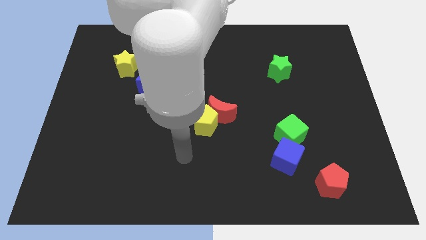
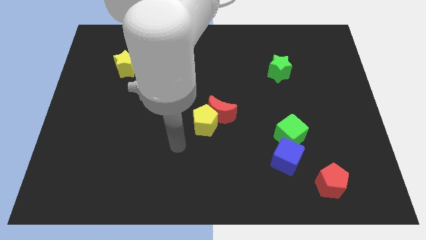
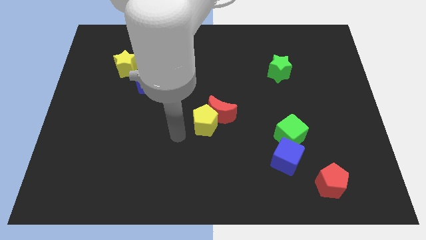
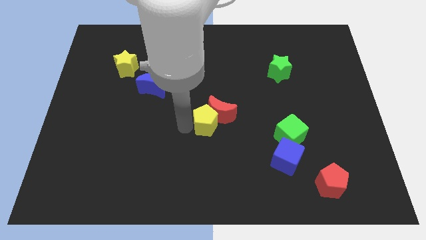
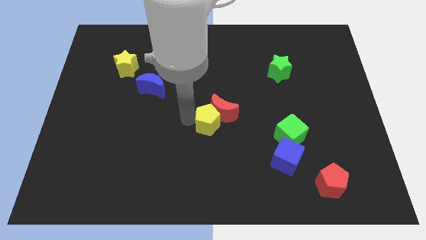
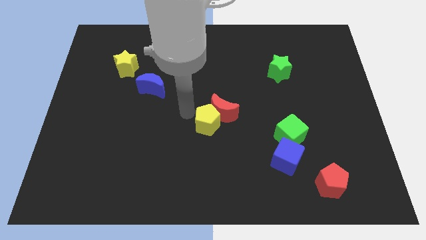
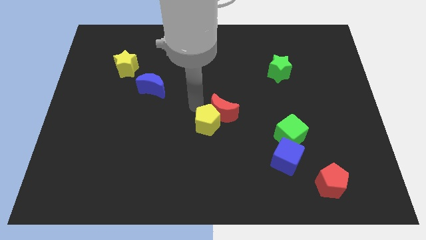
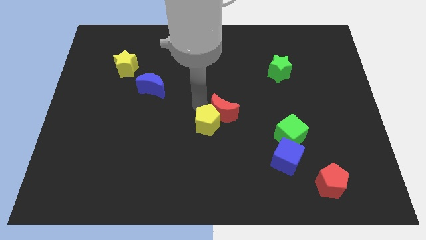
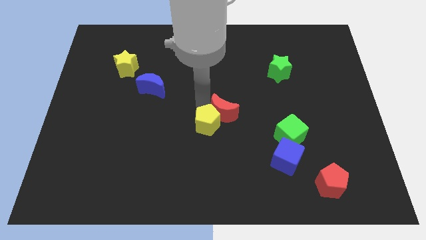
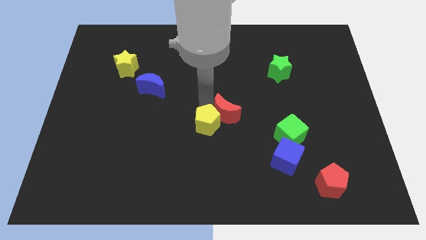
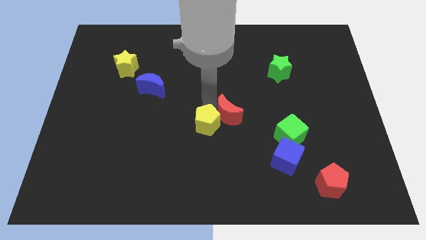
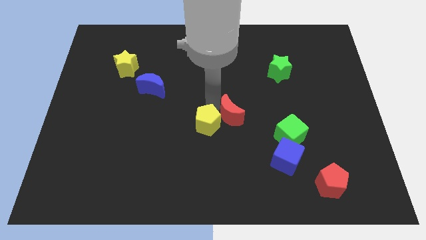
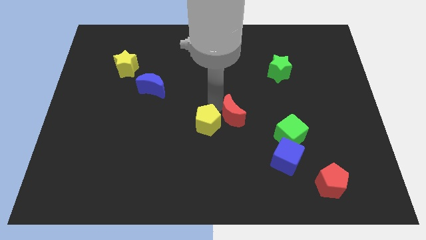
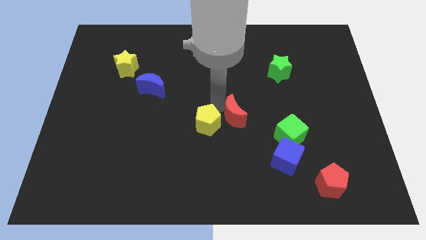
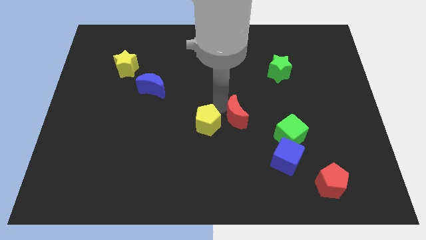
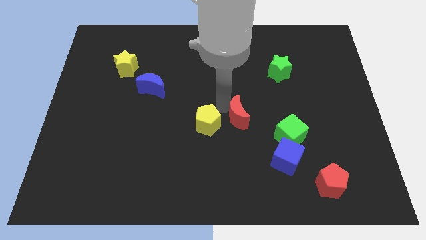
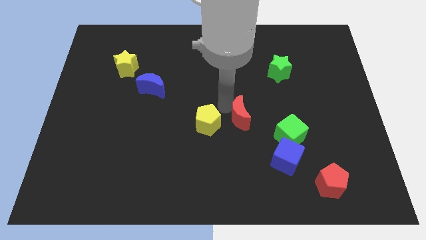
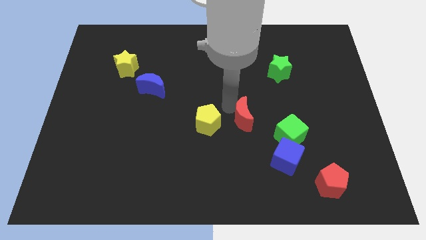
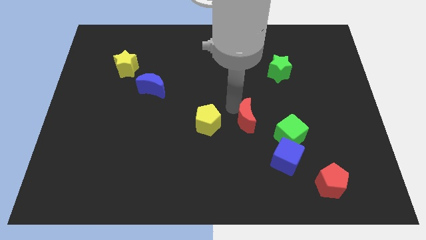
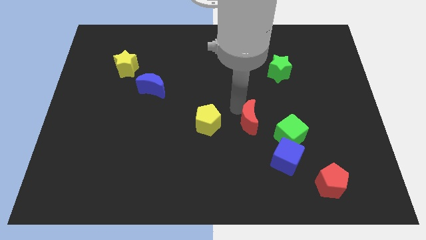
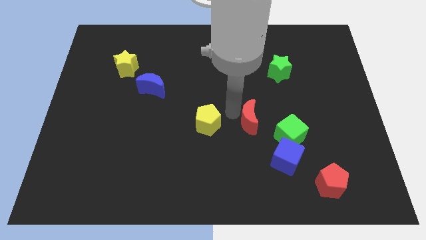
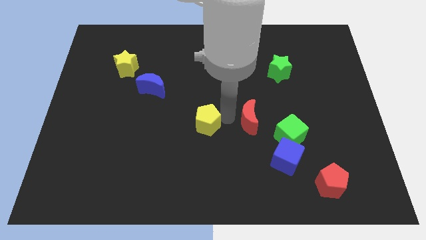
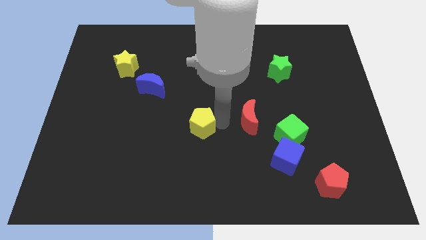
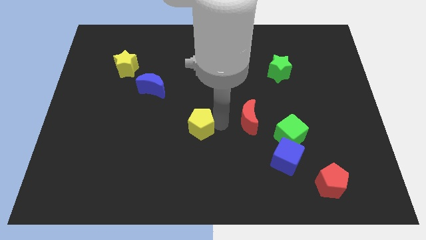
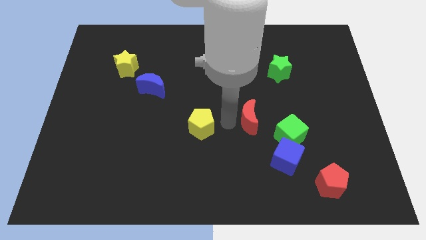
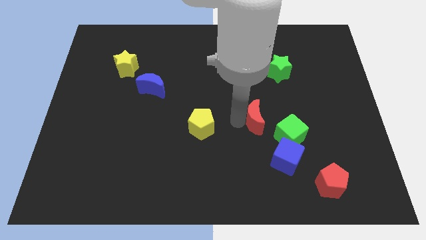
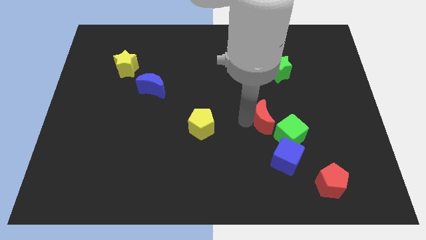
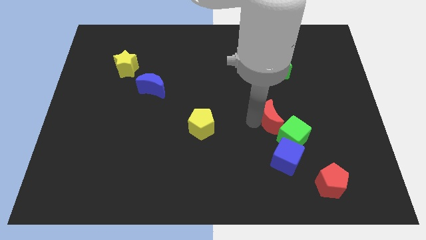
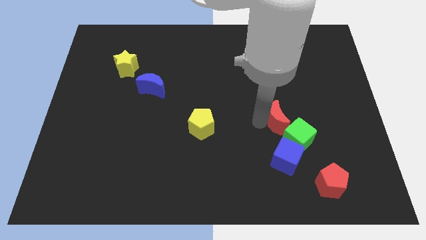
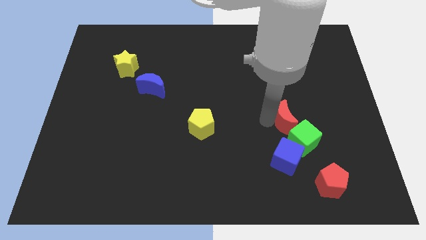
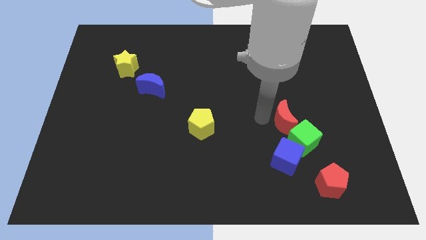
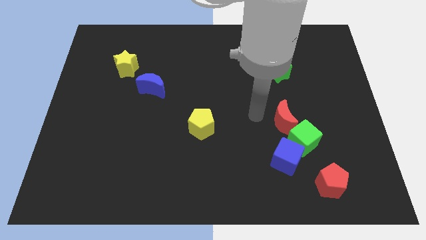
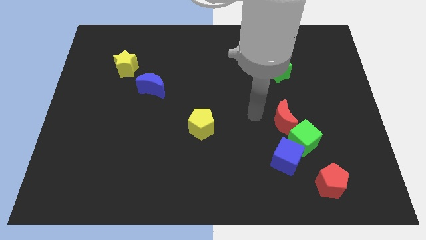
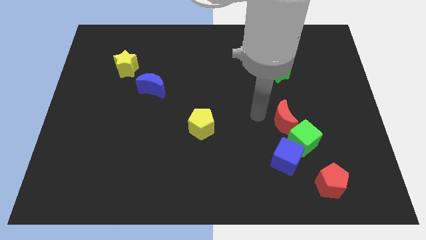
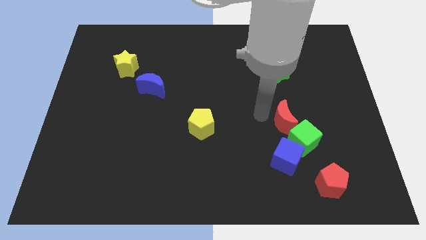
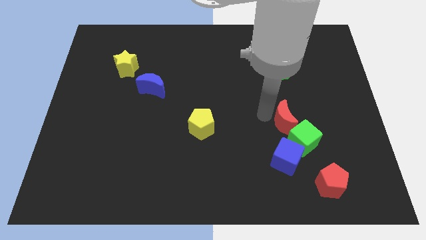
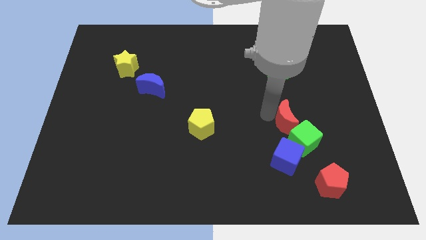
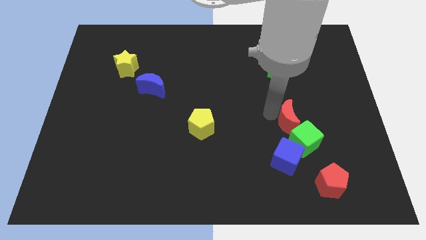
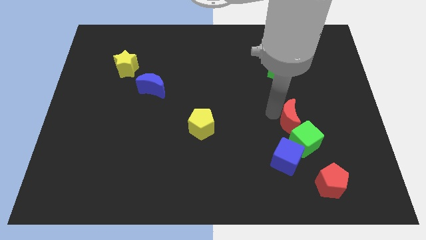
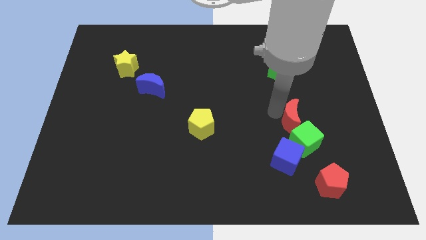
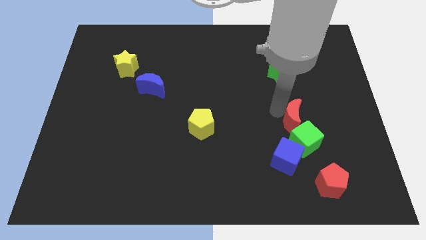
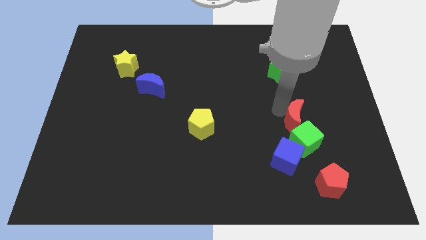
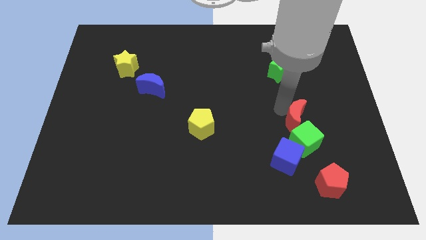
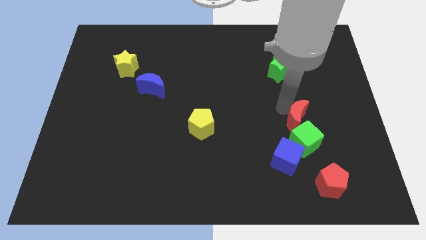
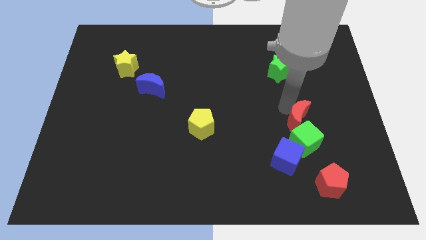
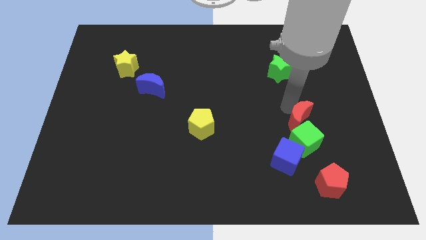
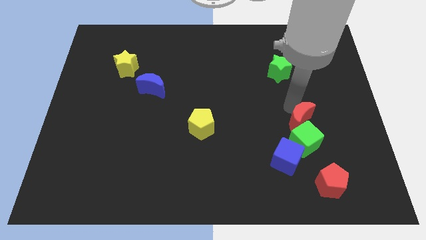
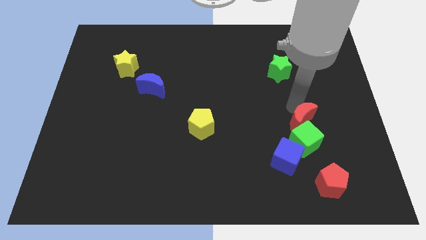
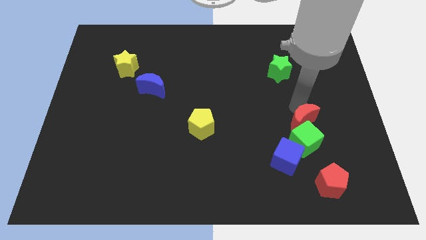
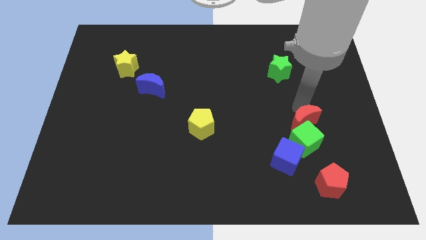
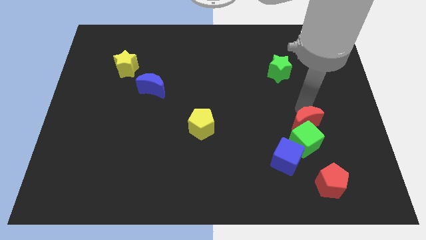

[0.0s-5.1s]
slide the red moon above the red pentagon

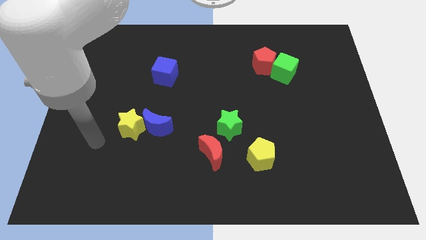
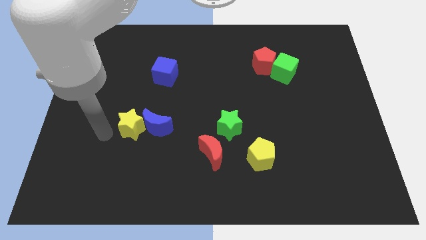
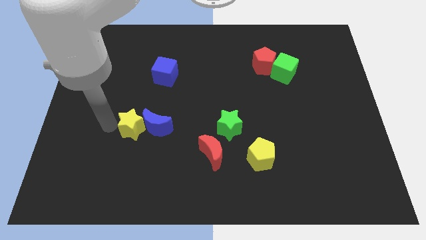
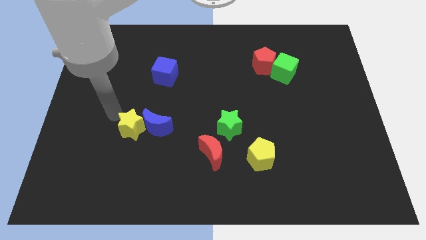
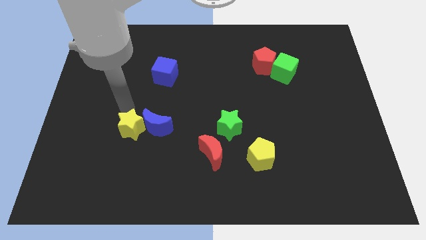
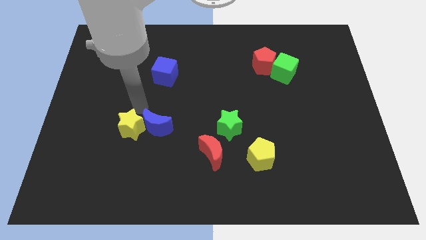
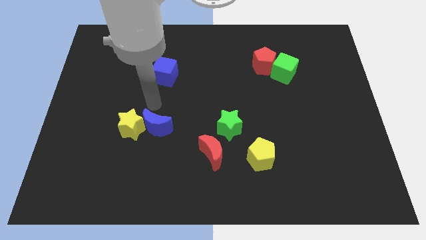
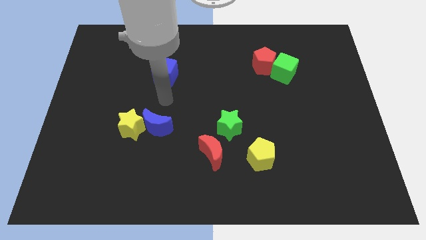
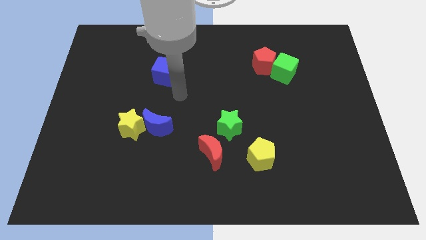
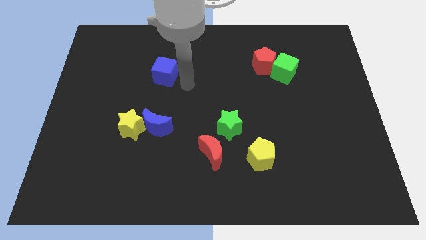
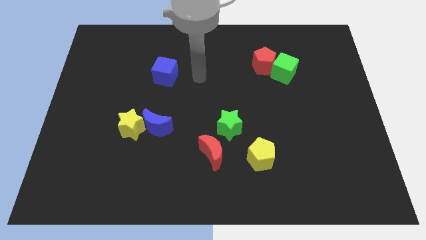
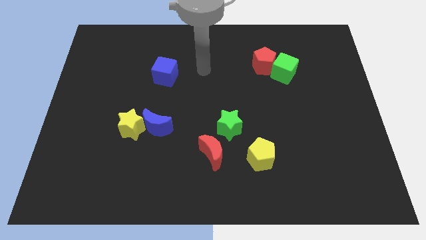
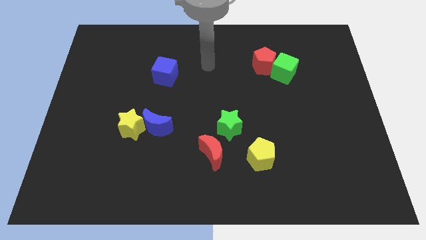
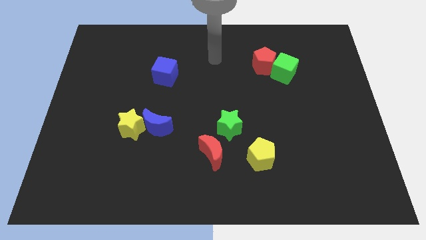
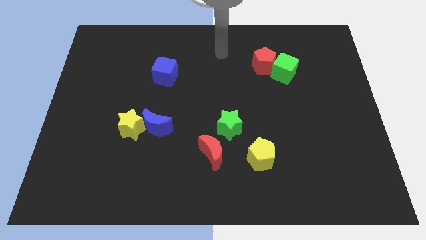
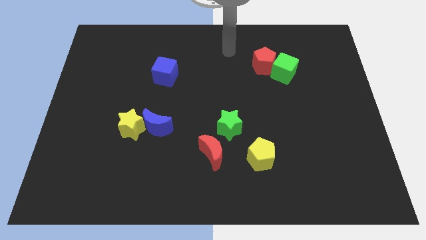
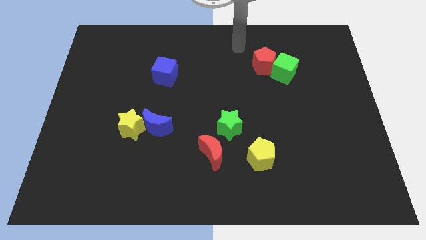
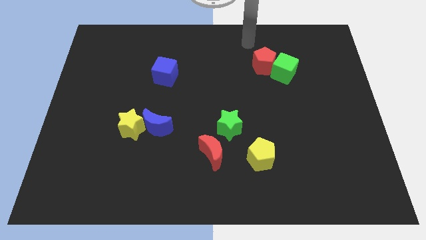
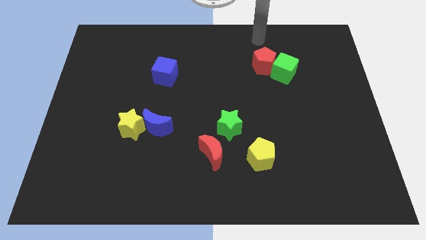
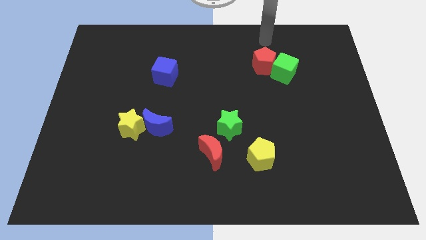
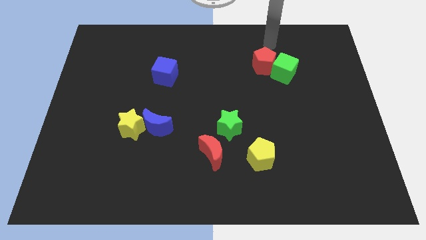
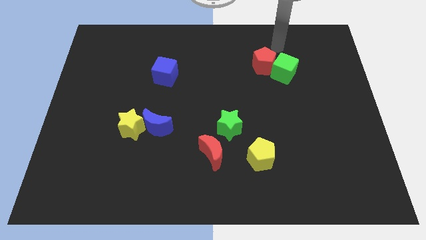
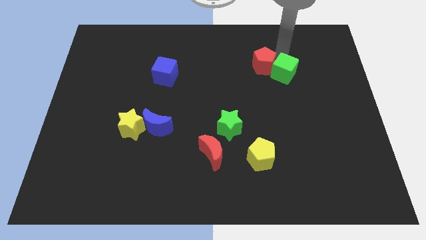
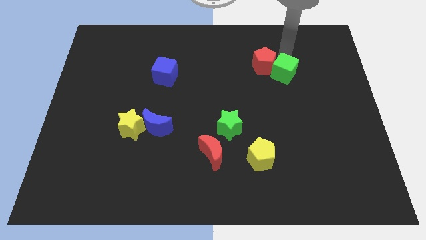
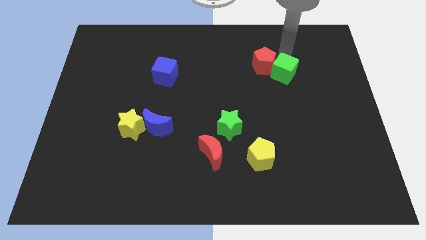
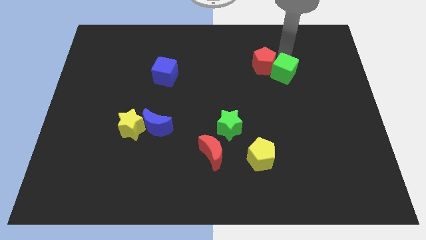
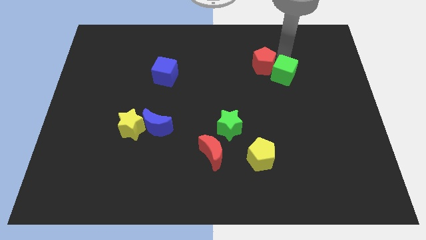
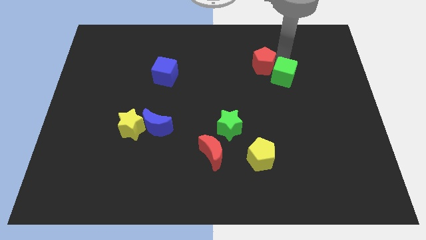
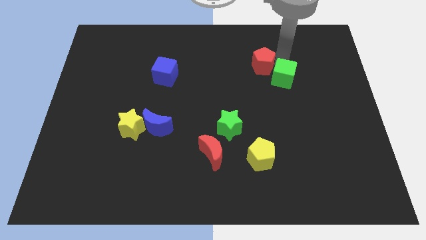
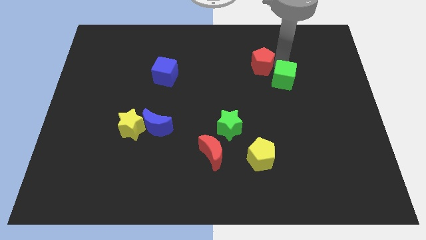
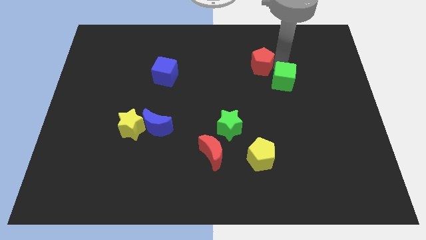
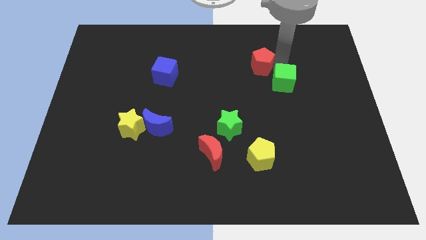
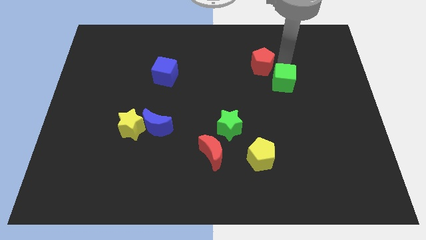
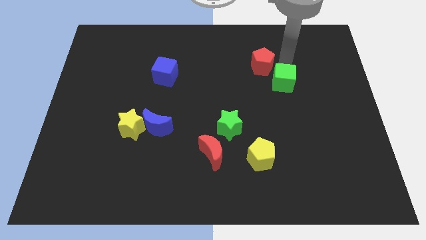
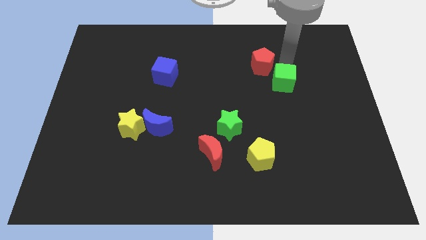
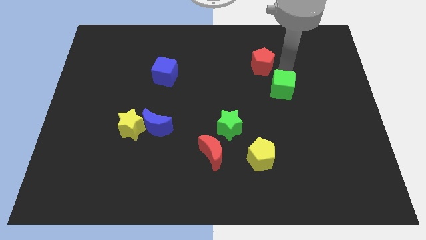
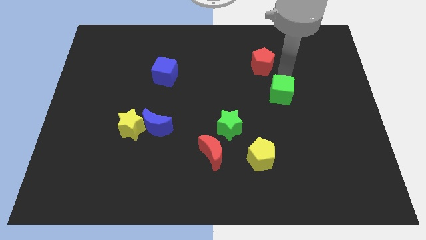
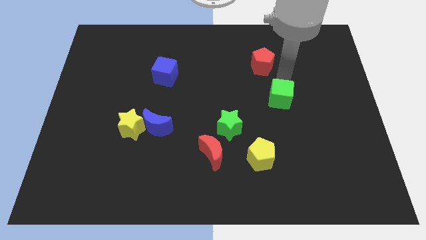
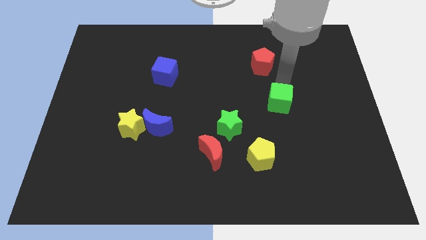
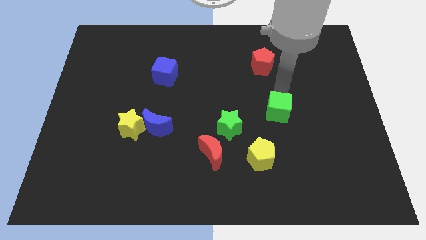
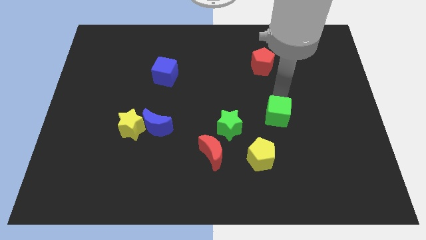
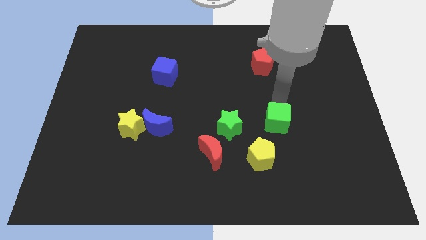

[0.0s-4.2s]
push the green cube diagonally up and to the right of the yellow pentagon
